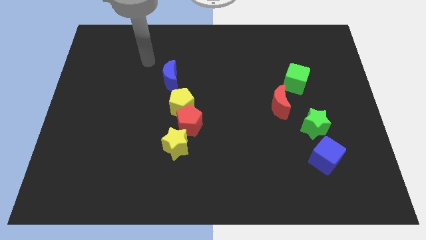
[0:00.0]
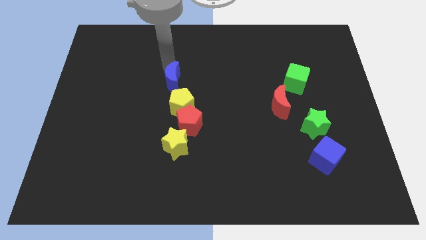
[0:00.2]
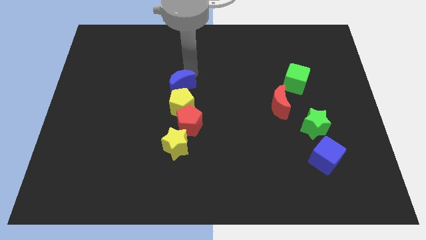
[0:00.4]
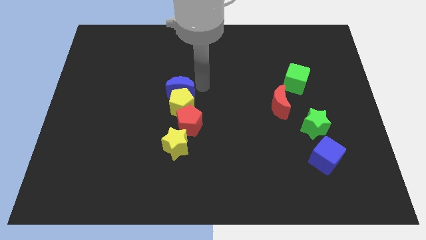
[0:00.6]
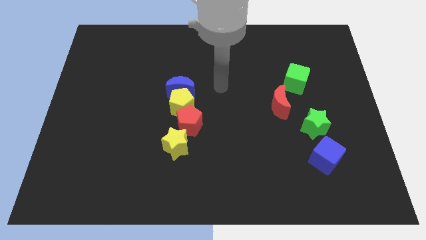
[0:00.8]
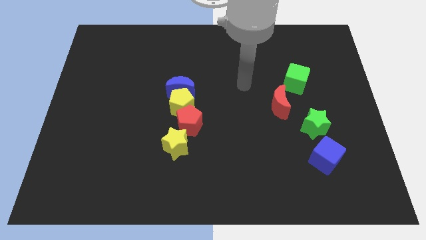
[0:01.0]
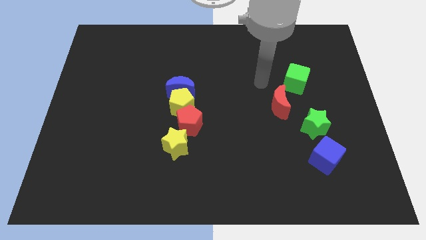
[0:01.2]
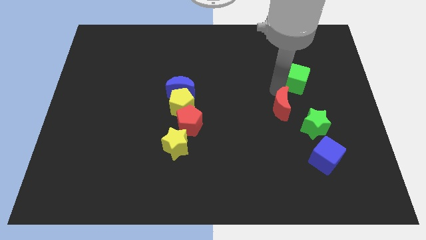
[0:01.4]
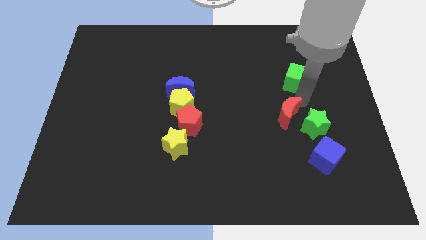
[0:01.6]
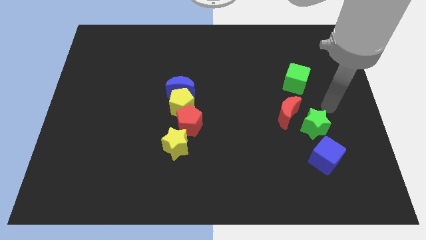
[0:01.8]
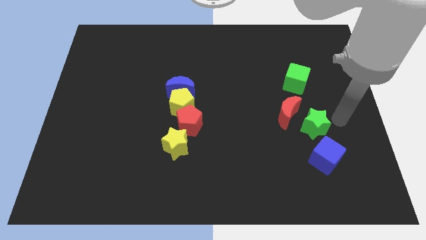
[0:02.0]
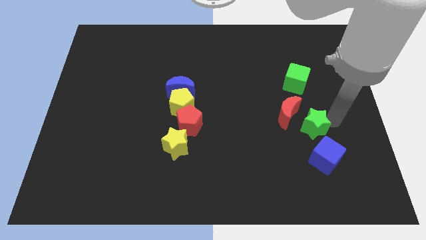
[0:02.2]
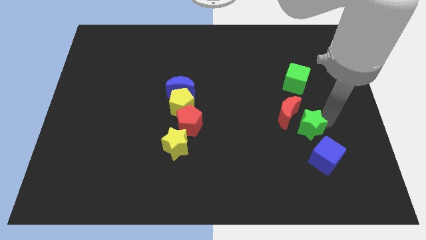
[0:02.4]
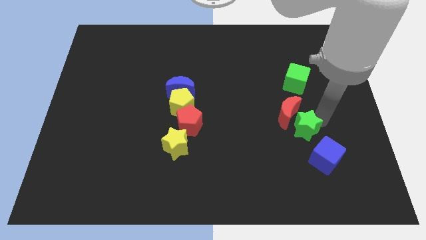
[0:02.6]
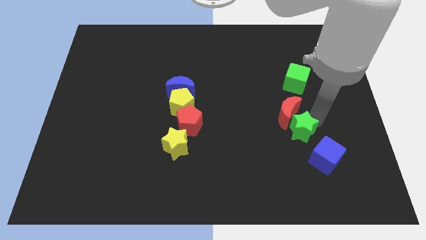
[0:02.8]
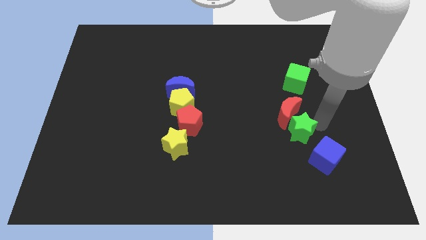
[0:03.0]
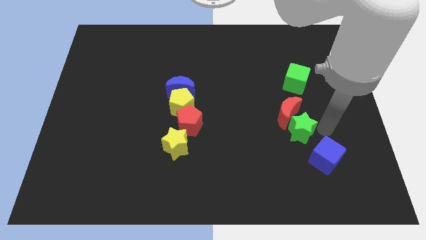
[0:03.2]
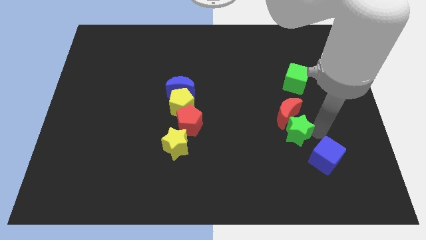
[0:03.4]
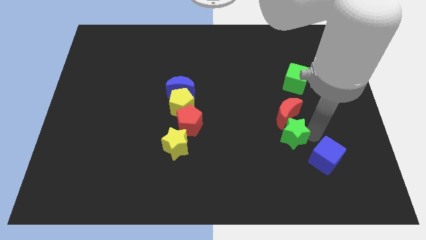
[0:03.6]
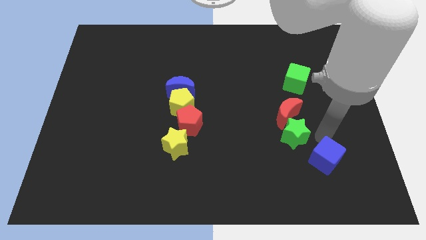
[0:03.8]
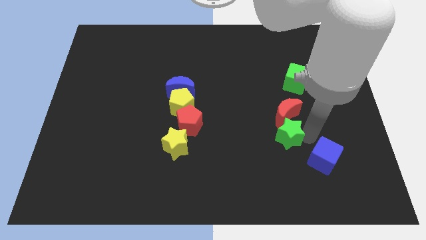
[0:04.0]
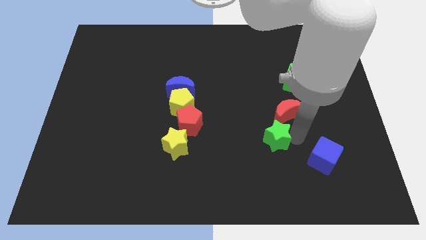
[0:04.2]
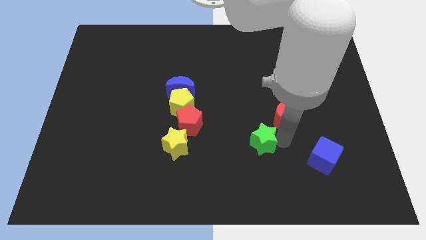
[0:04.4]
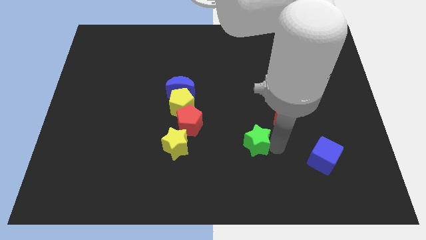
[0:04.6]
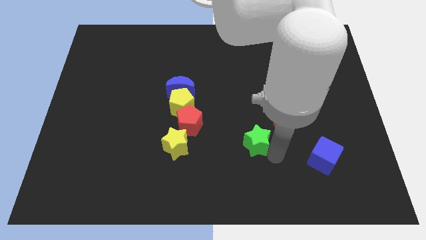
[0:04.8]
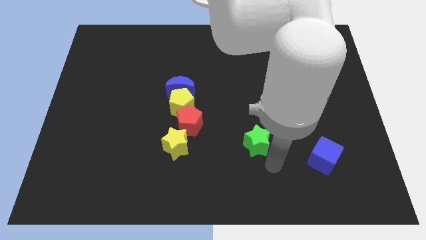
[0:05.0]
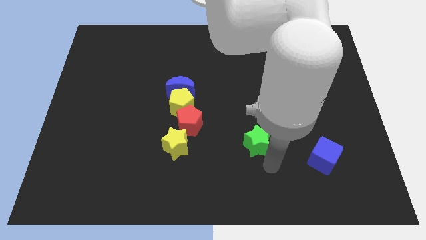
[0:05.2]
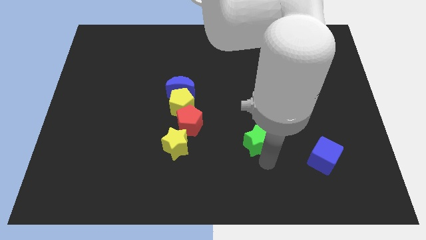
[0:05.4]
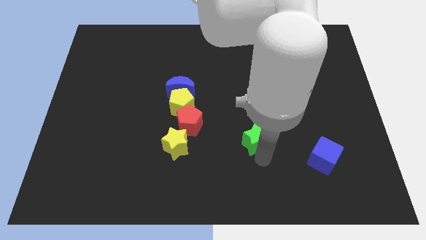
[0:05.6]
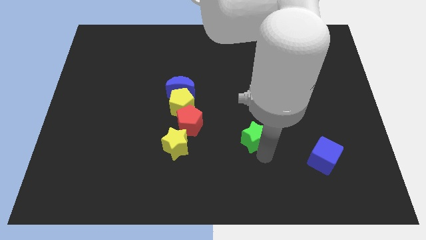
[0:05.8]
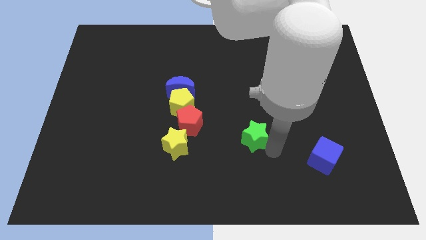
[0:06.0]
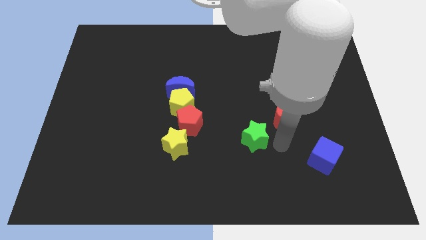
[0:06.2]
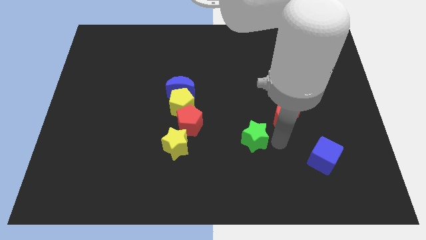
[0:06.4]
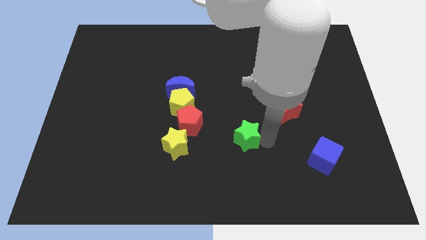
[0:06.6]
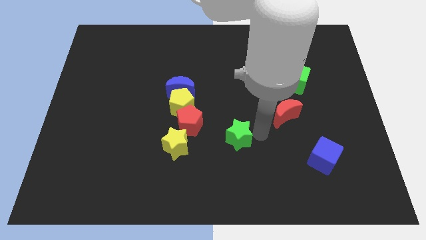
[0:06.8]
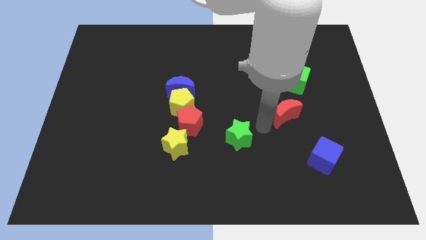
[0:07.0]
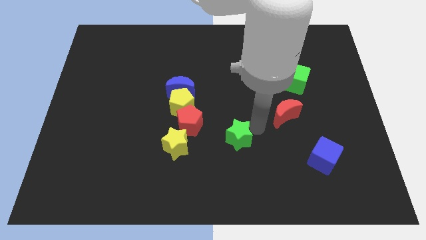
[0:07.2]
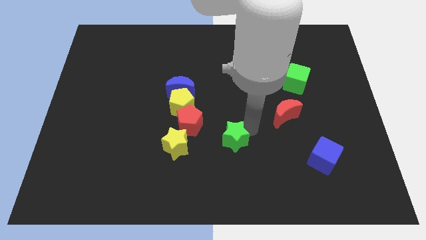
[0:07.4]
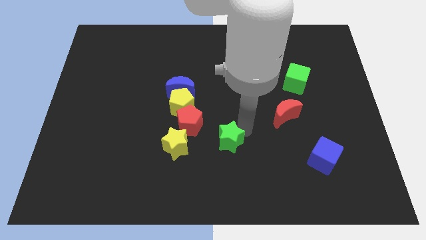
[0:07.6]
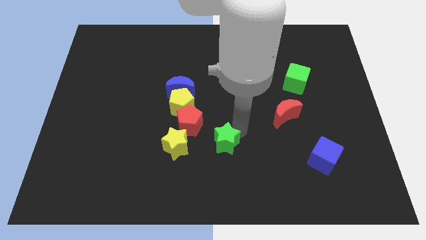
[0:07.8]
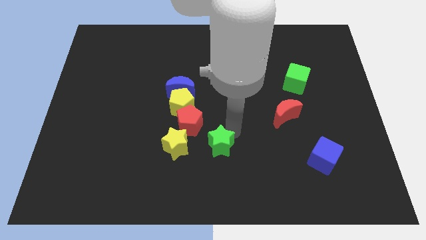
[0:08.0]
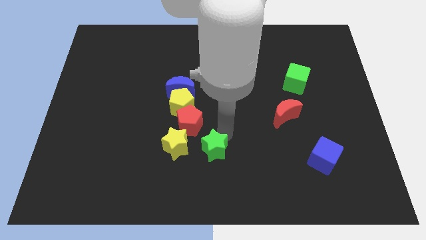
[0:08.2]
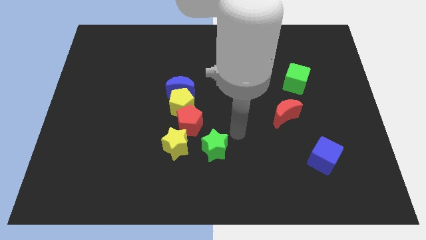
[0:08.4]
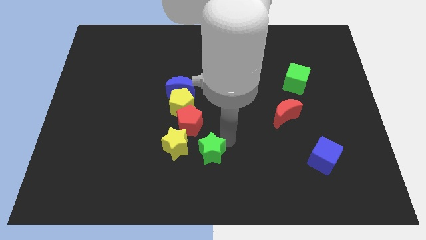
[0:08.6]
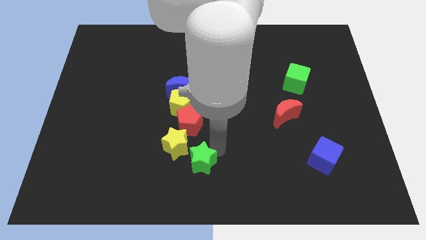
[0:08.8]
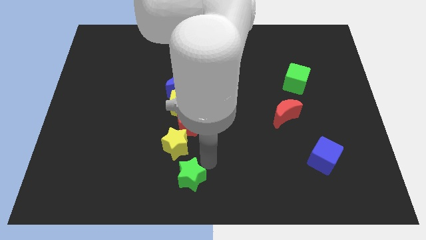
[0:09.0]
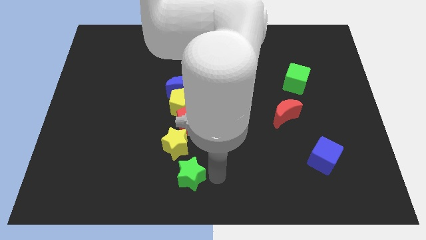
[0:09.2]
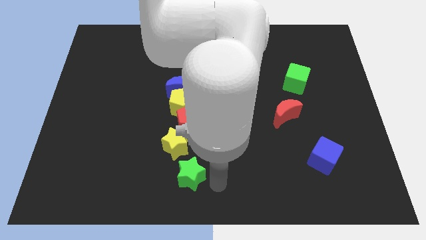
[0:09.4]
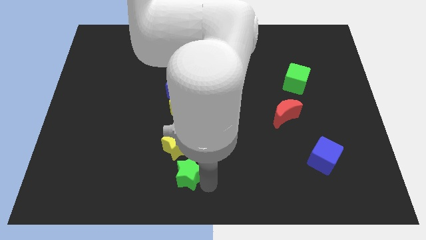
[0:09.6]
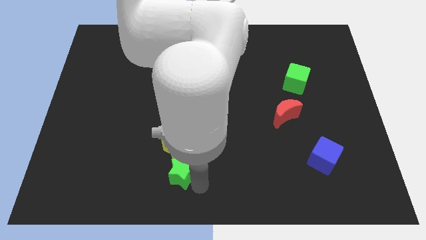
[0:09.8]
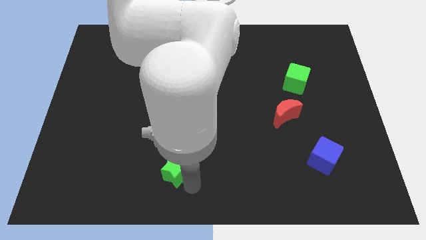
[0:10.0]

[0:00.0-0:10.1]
slide the green star to the bottom left of the yellow star

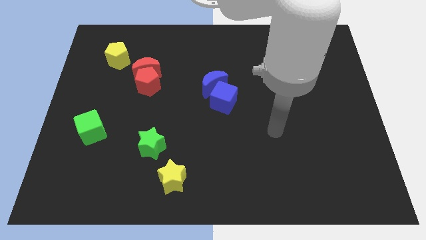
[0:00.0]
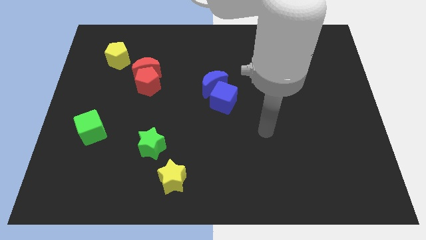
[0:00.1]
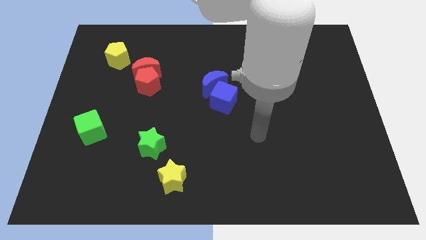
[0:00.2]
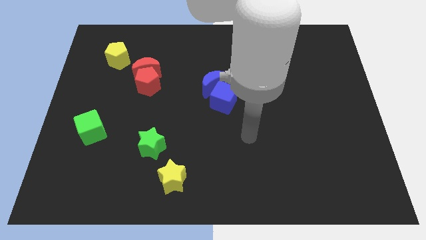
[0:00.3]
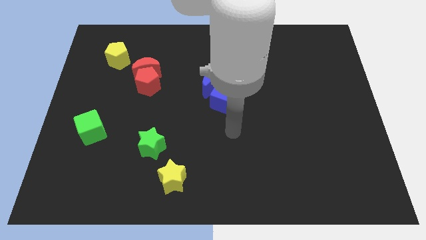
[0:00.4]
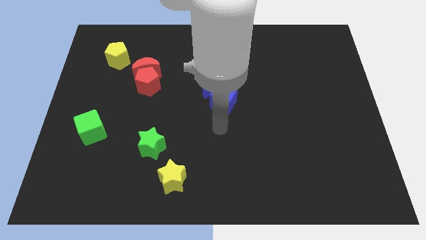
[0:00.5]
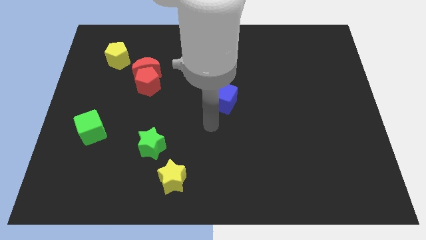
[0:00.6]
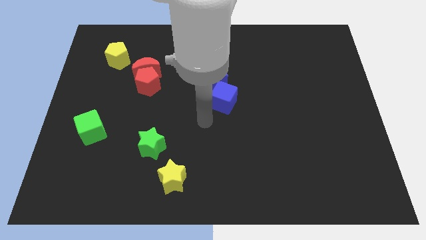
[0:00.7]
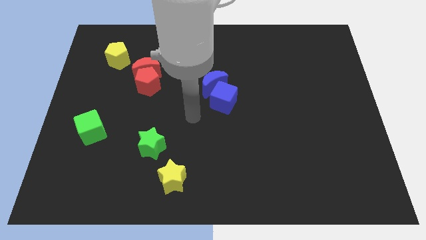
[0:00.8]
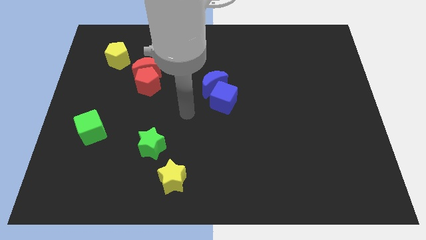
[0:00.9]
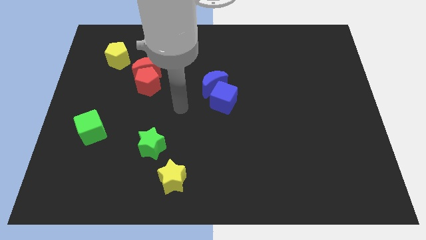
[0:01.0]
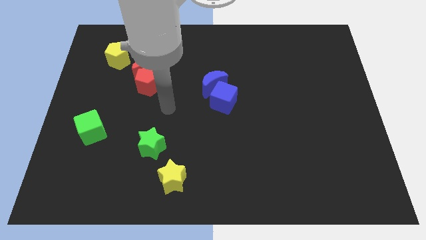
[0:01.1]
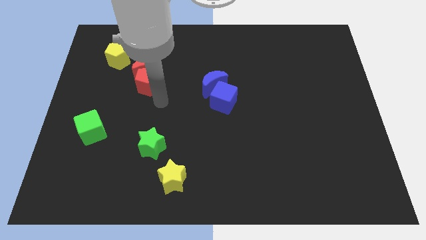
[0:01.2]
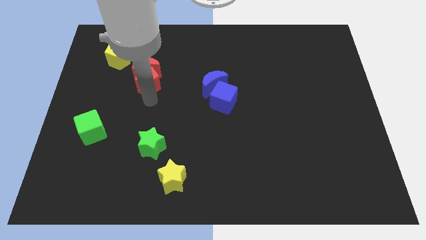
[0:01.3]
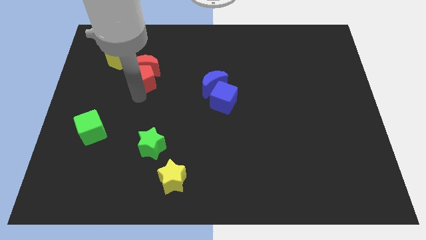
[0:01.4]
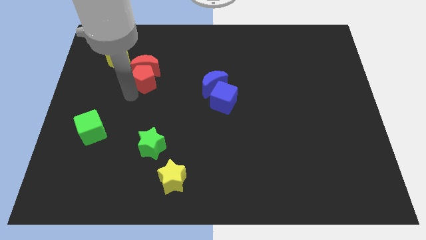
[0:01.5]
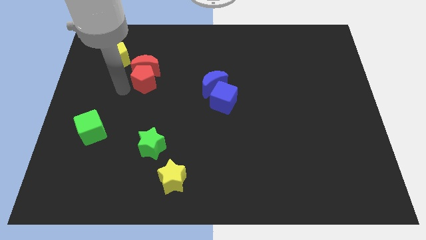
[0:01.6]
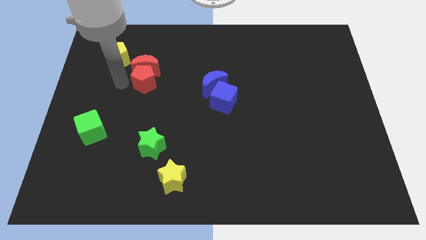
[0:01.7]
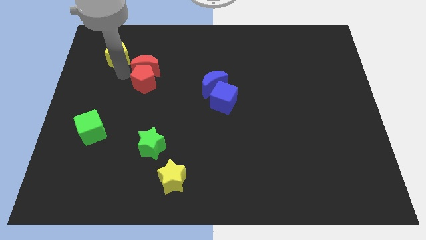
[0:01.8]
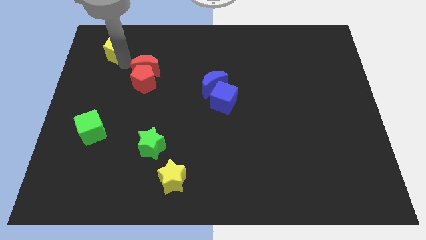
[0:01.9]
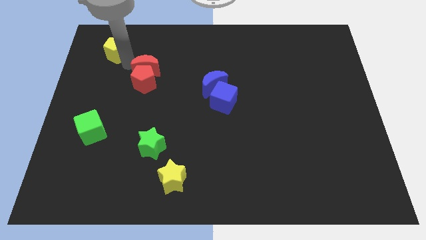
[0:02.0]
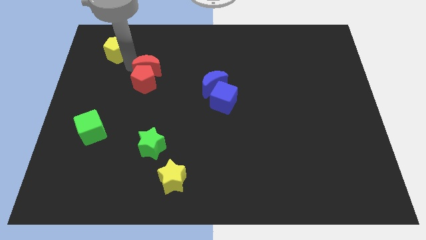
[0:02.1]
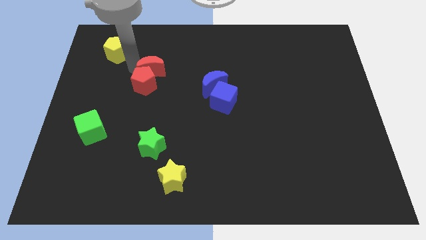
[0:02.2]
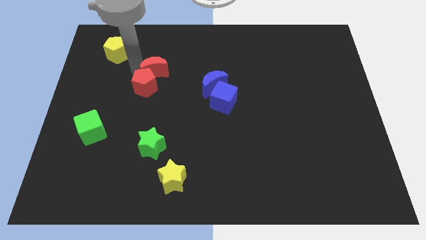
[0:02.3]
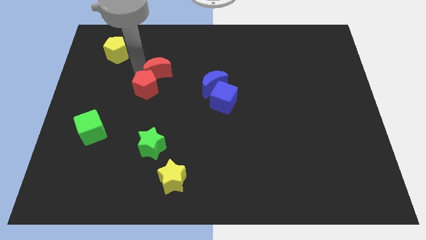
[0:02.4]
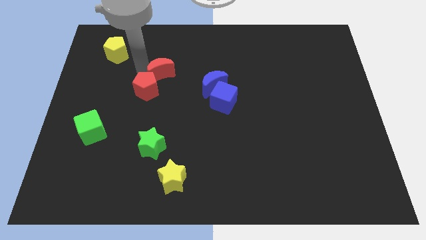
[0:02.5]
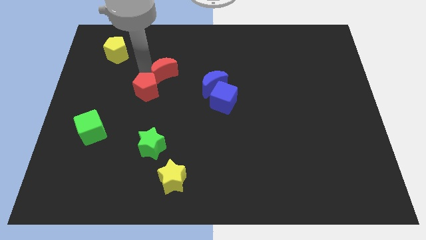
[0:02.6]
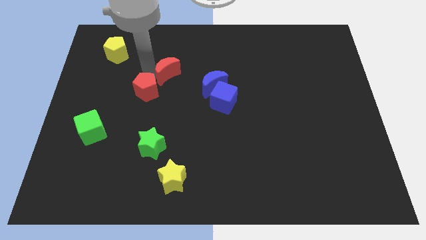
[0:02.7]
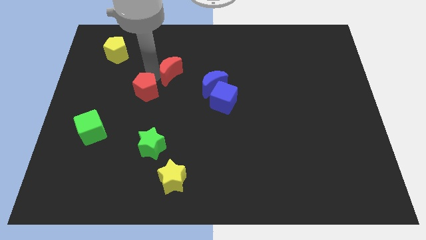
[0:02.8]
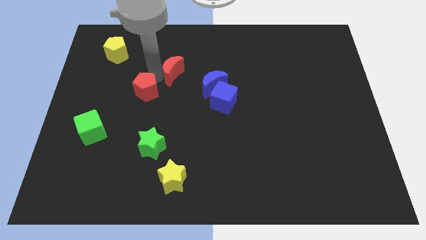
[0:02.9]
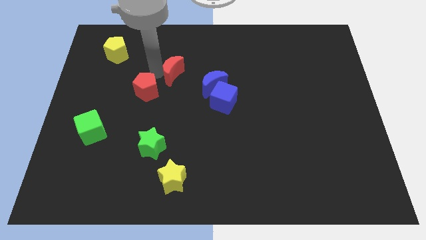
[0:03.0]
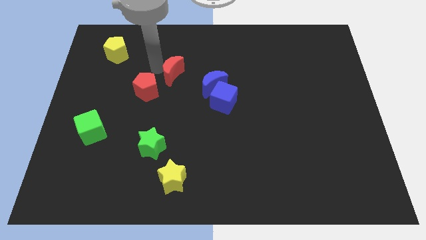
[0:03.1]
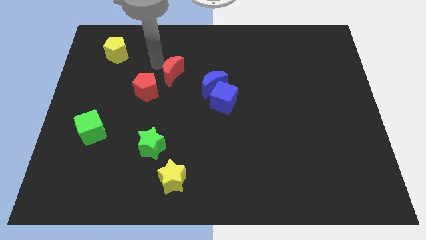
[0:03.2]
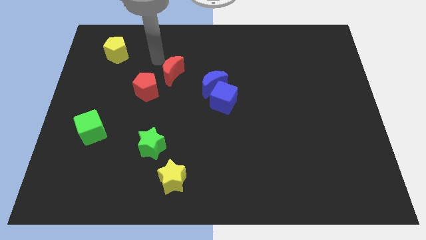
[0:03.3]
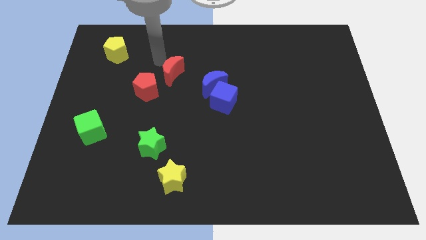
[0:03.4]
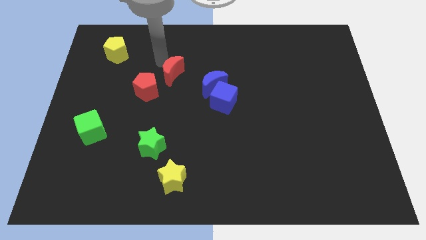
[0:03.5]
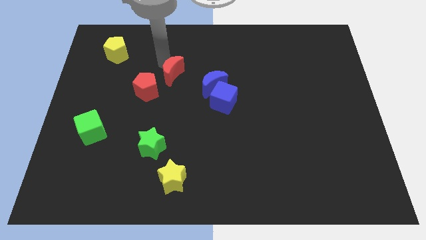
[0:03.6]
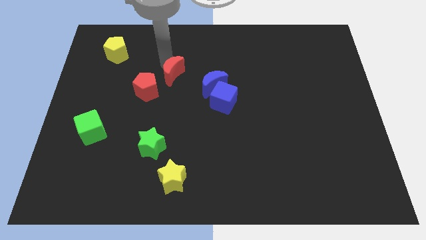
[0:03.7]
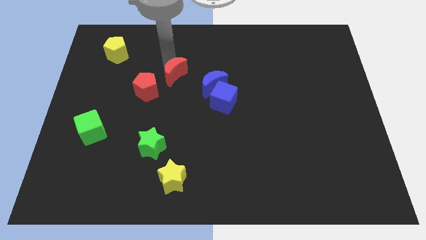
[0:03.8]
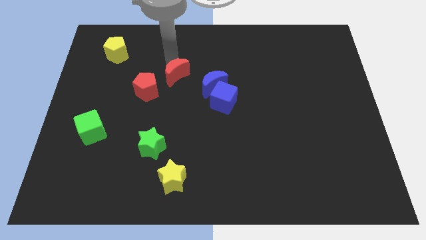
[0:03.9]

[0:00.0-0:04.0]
slide the red moon right of the red pentagon
